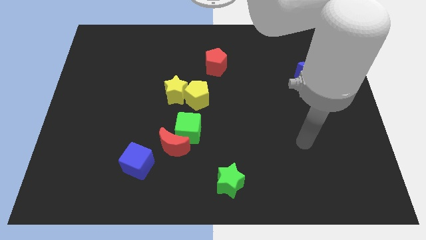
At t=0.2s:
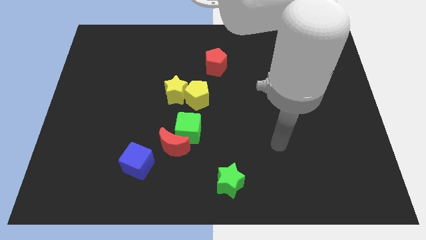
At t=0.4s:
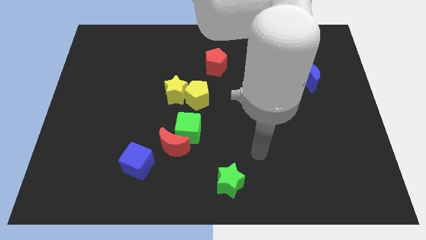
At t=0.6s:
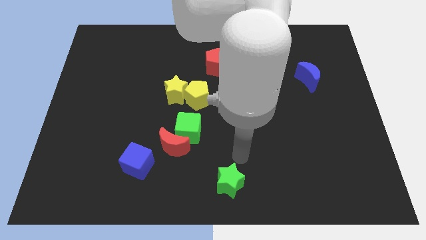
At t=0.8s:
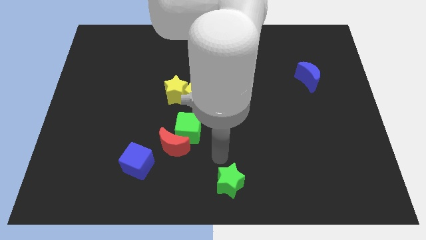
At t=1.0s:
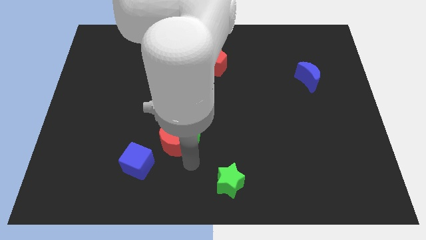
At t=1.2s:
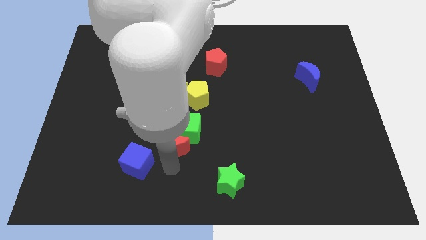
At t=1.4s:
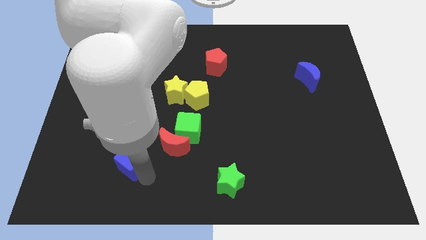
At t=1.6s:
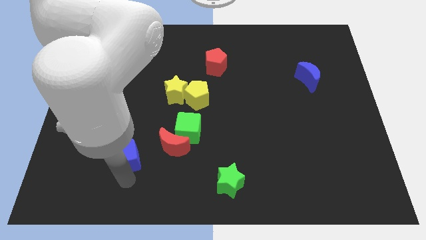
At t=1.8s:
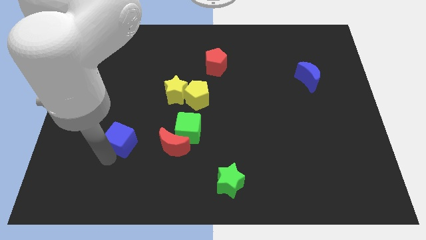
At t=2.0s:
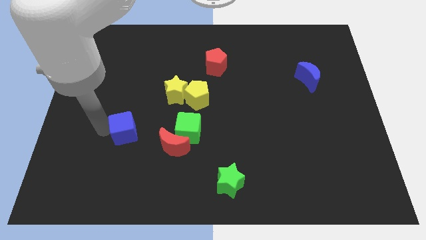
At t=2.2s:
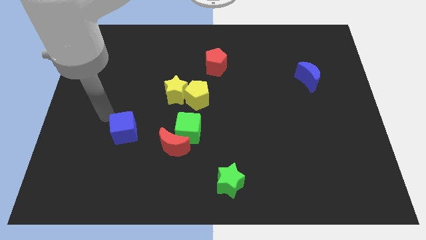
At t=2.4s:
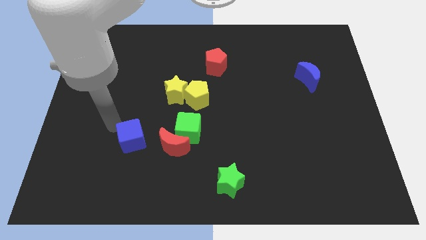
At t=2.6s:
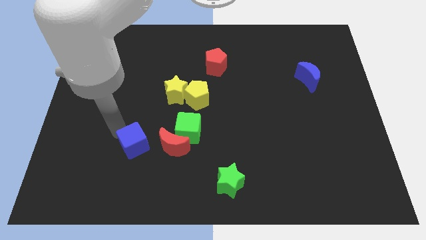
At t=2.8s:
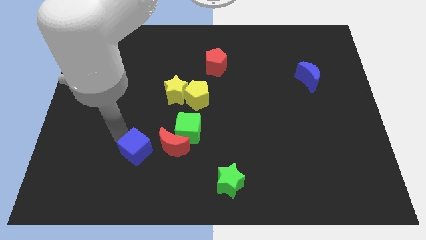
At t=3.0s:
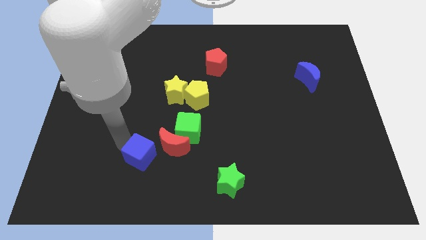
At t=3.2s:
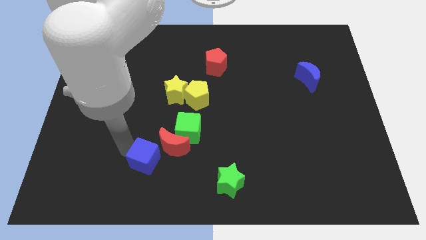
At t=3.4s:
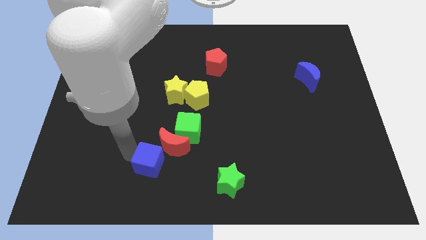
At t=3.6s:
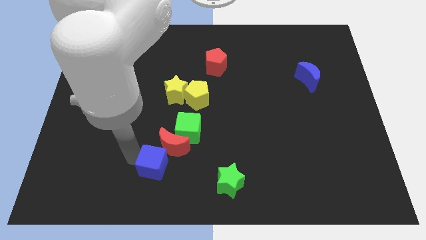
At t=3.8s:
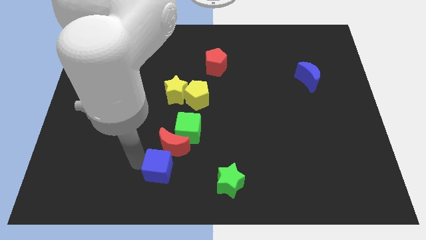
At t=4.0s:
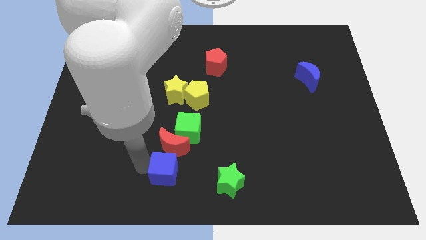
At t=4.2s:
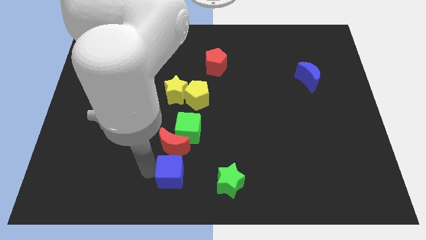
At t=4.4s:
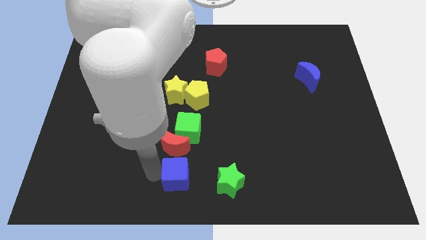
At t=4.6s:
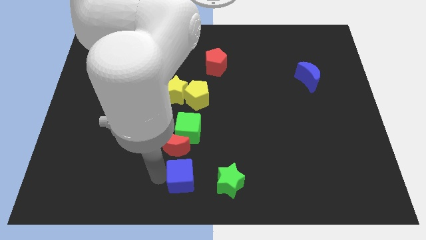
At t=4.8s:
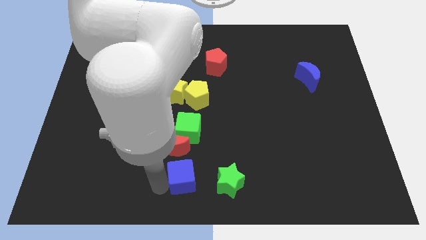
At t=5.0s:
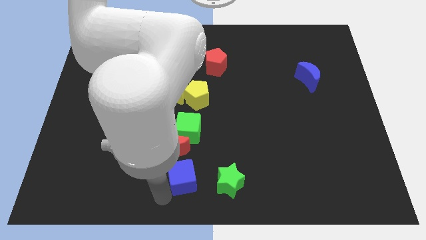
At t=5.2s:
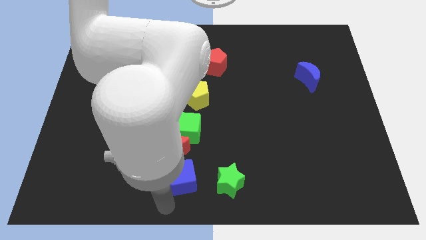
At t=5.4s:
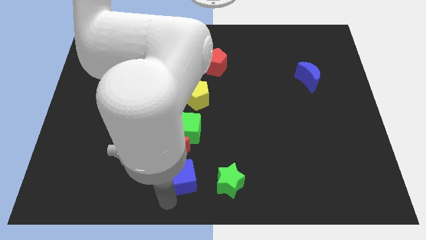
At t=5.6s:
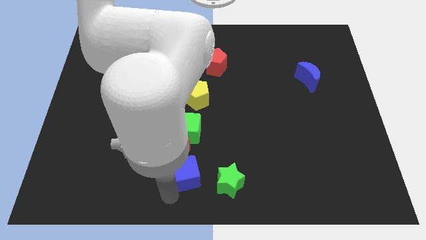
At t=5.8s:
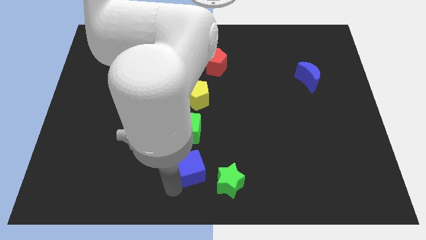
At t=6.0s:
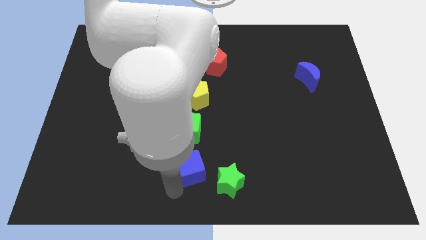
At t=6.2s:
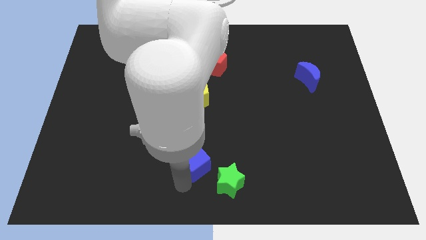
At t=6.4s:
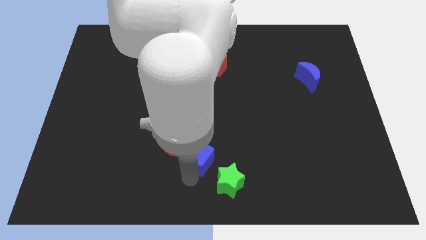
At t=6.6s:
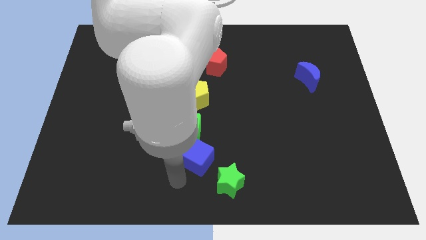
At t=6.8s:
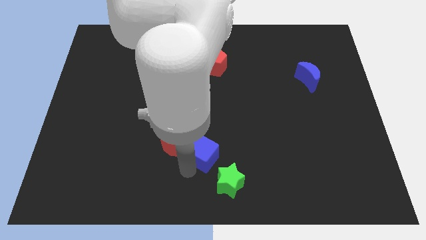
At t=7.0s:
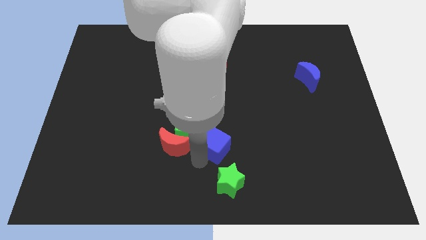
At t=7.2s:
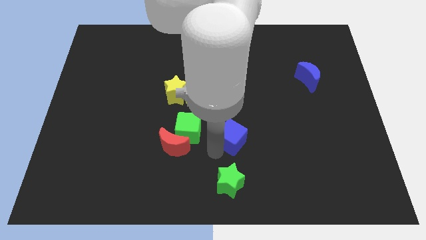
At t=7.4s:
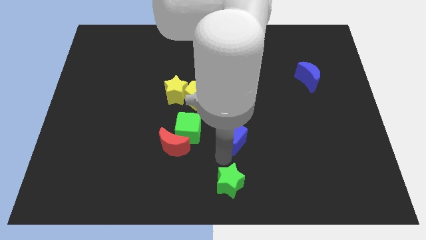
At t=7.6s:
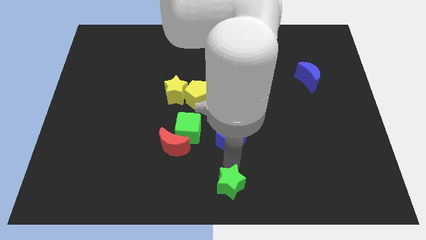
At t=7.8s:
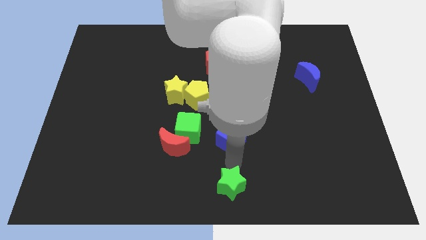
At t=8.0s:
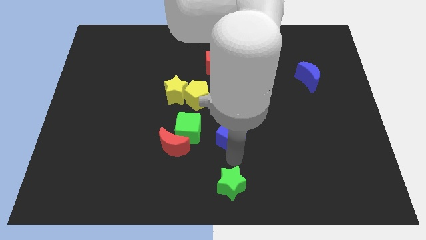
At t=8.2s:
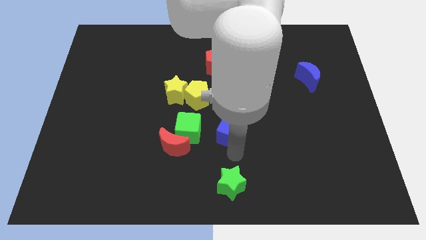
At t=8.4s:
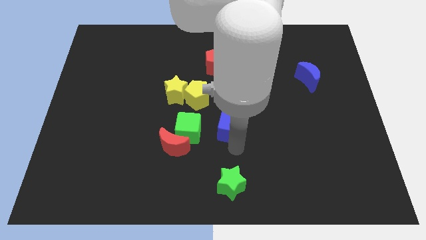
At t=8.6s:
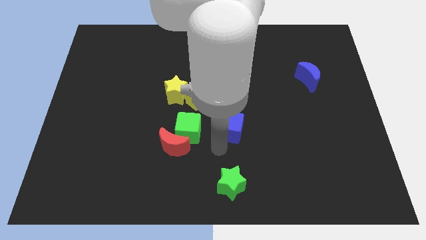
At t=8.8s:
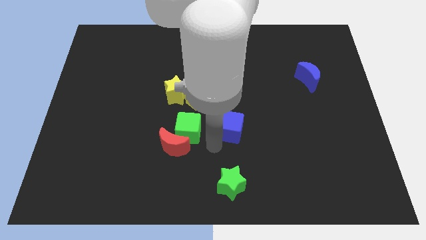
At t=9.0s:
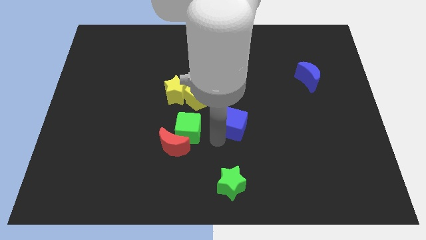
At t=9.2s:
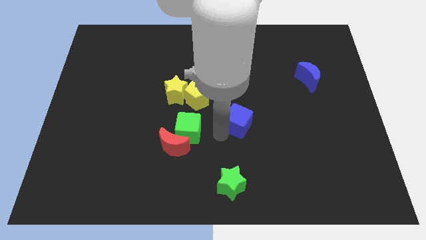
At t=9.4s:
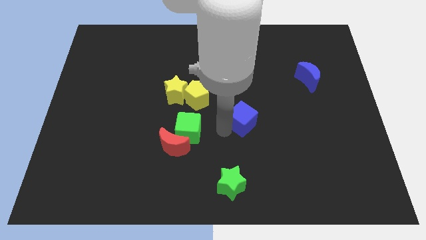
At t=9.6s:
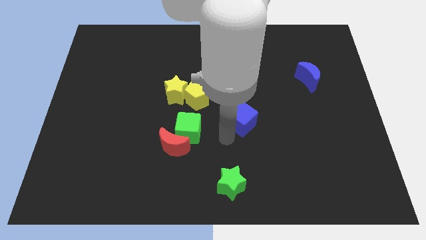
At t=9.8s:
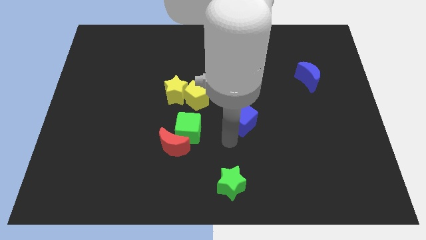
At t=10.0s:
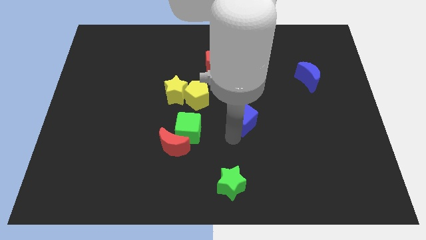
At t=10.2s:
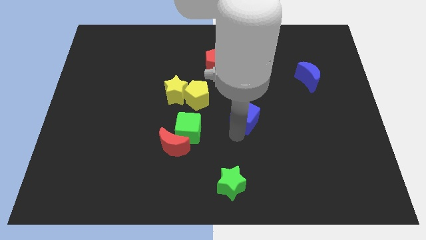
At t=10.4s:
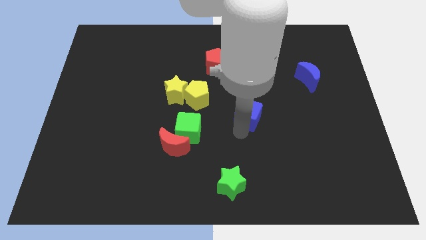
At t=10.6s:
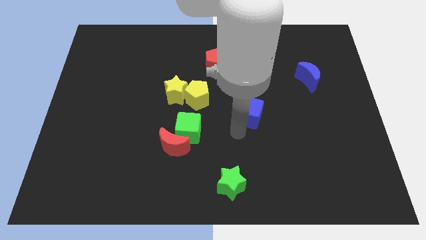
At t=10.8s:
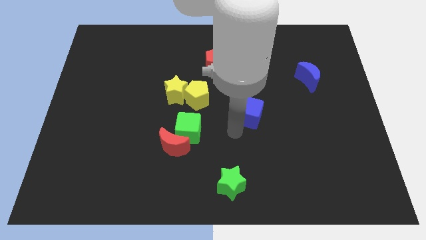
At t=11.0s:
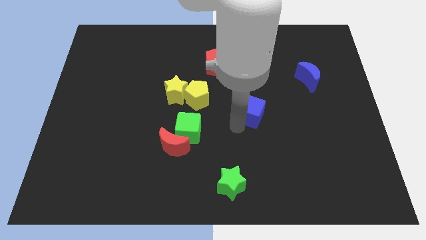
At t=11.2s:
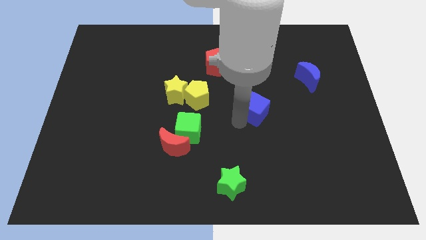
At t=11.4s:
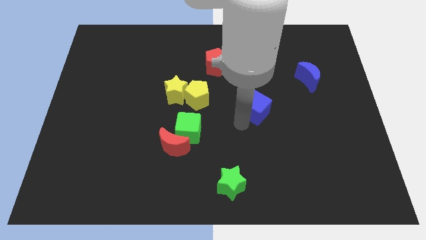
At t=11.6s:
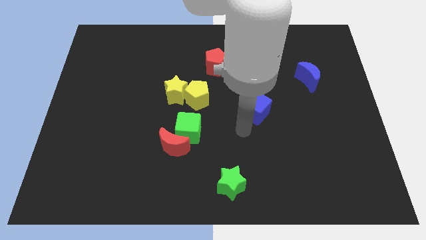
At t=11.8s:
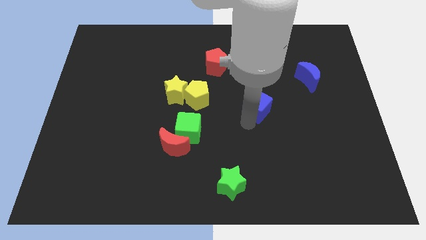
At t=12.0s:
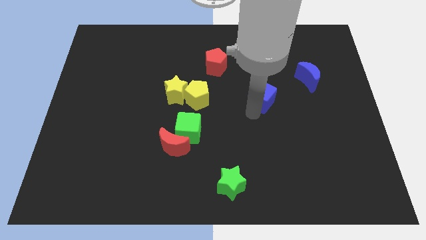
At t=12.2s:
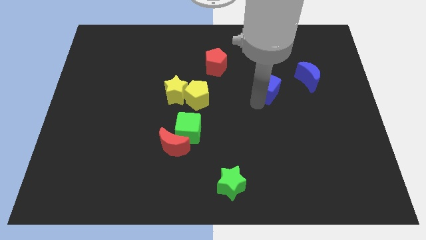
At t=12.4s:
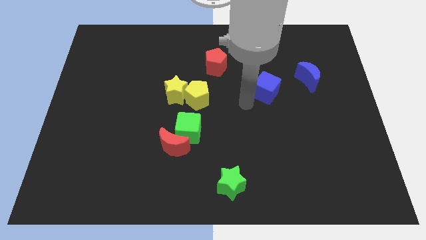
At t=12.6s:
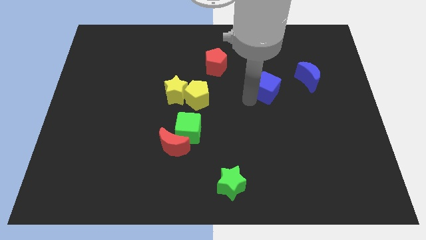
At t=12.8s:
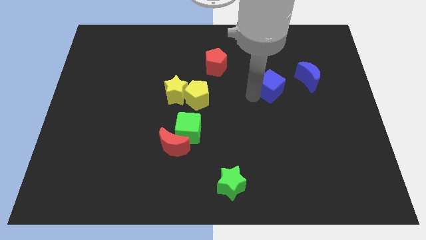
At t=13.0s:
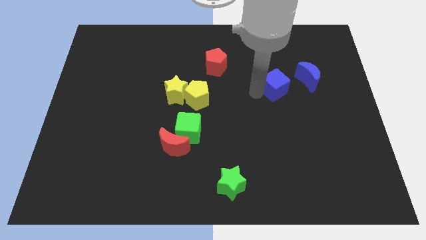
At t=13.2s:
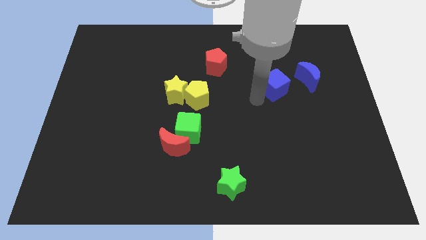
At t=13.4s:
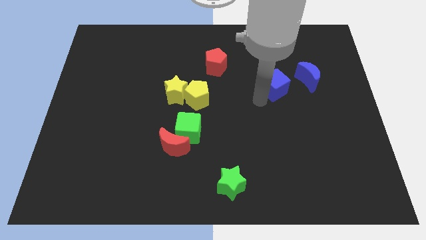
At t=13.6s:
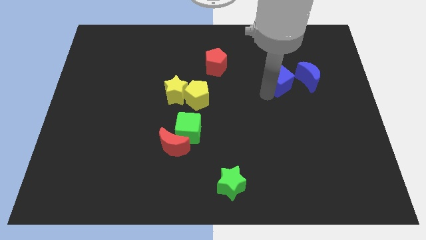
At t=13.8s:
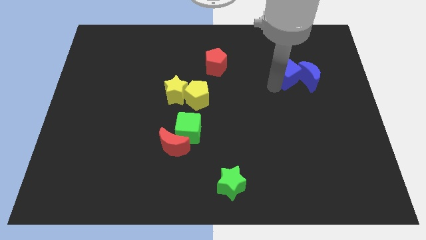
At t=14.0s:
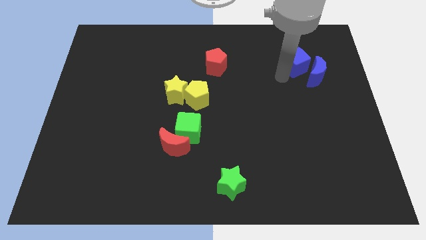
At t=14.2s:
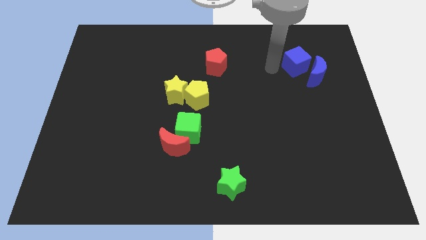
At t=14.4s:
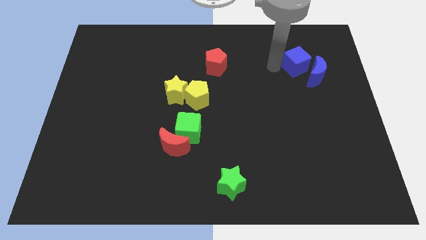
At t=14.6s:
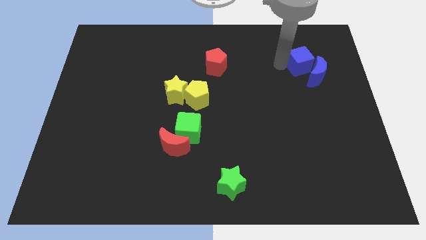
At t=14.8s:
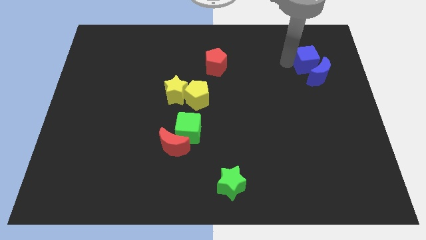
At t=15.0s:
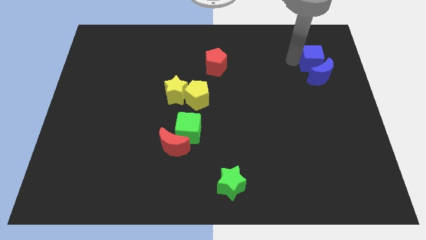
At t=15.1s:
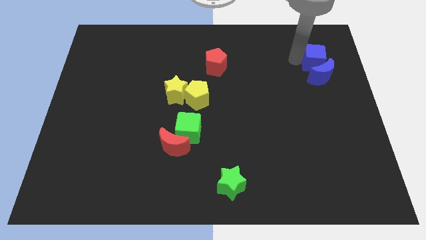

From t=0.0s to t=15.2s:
slide the blue cube to the top right side of the blue moon
